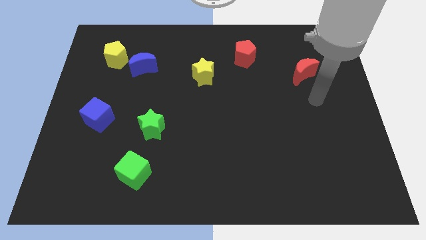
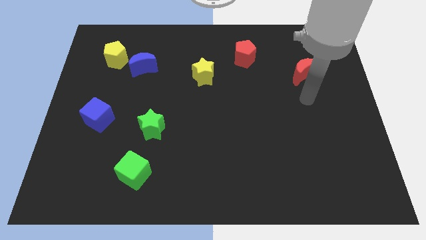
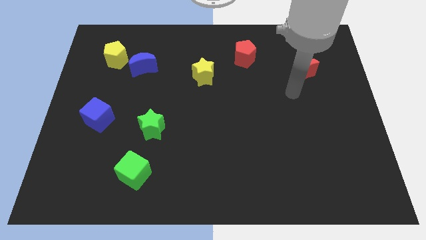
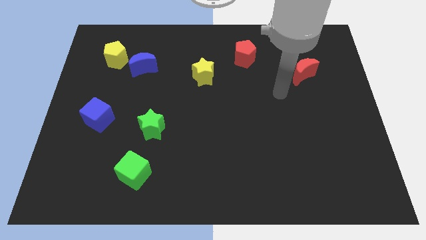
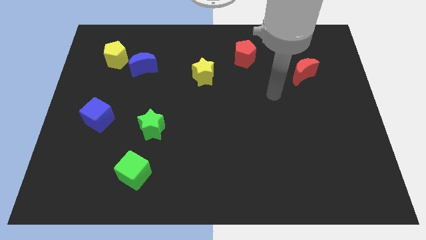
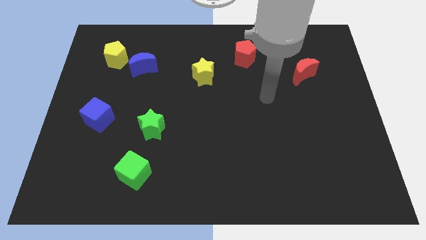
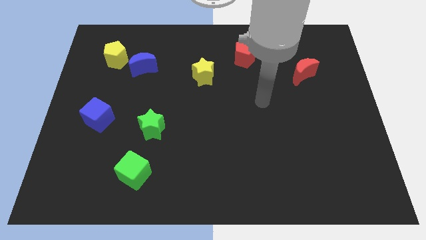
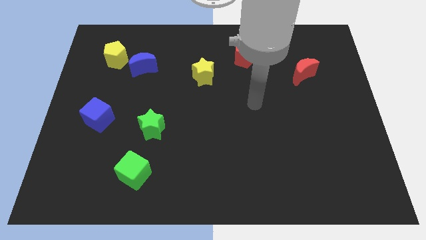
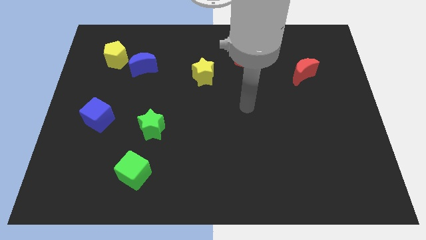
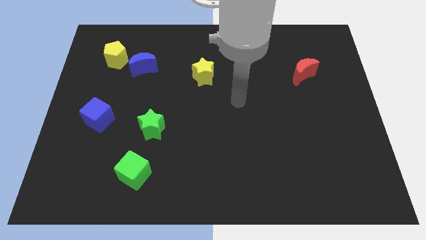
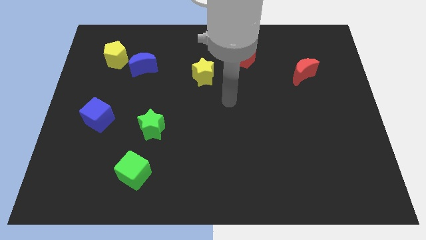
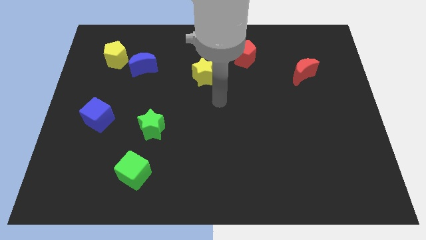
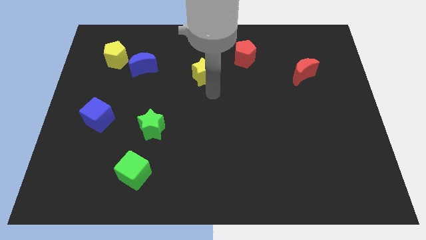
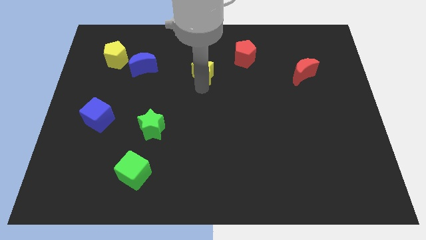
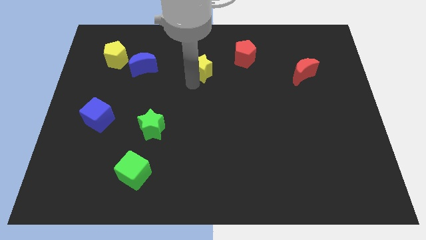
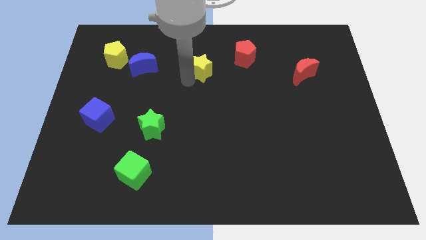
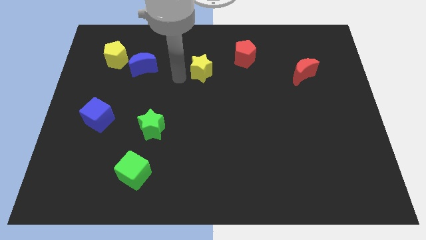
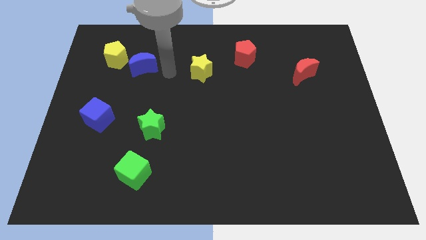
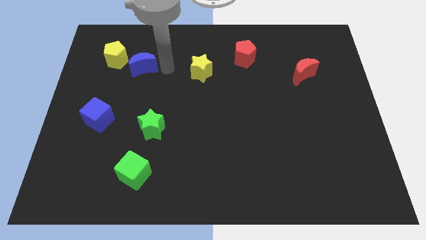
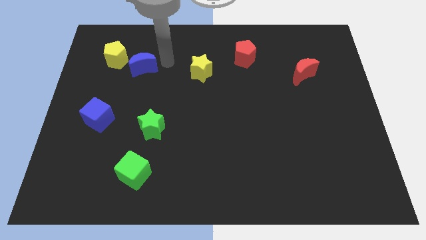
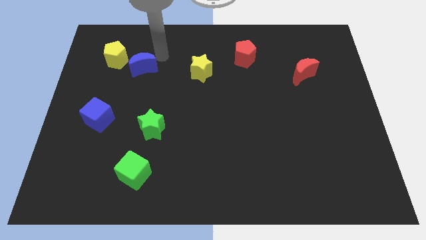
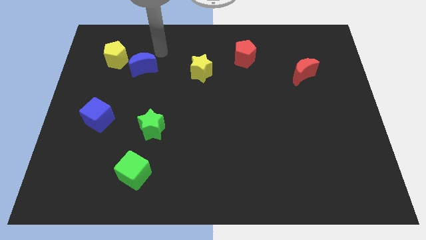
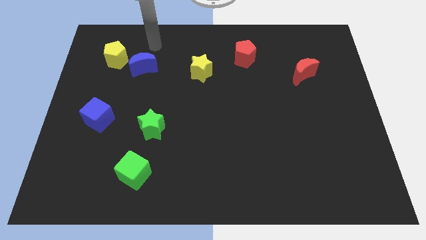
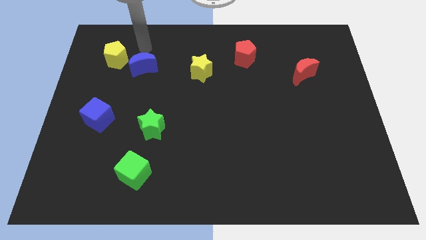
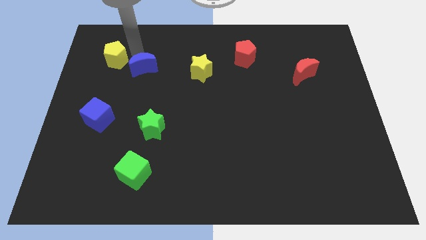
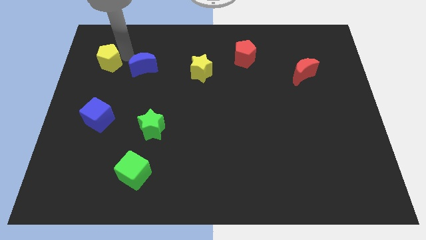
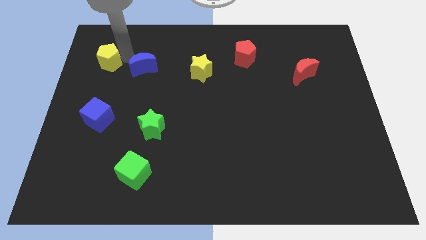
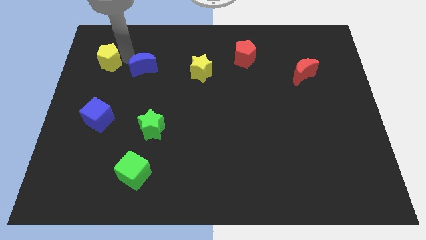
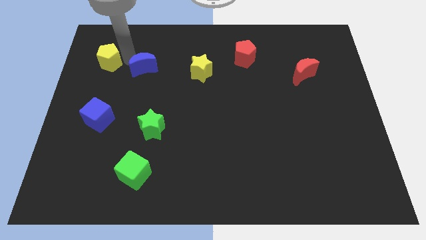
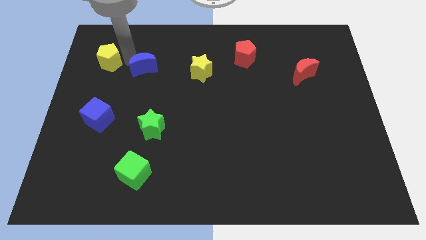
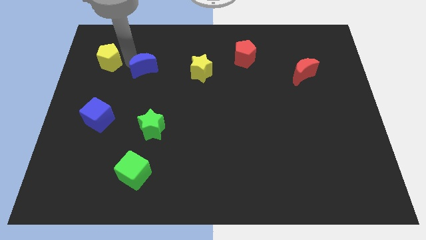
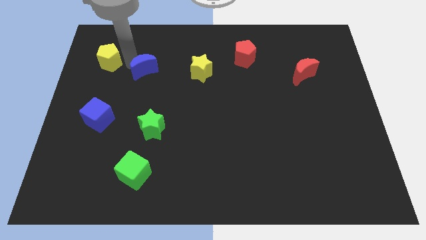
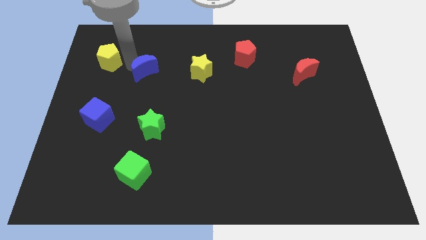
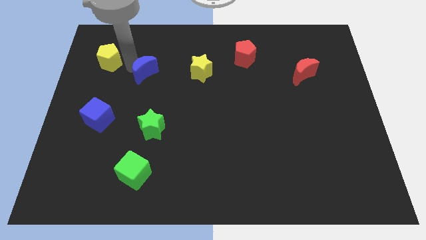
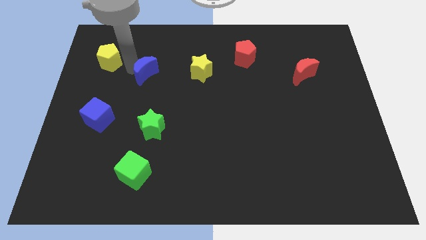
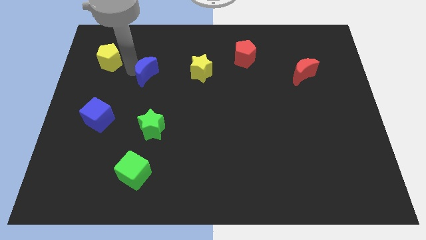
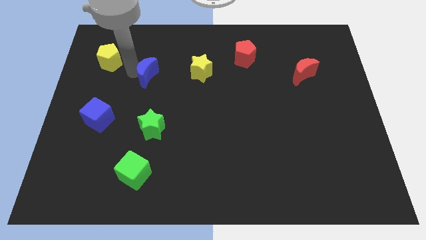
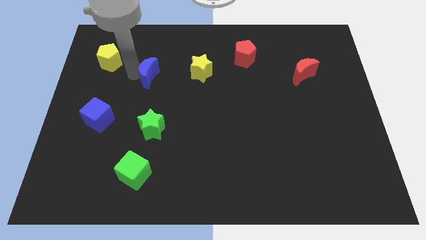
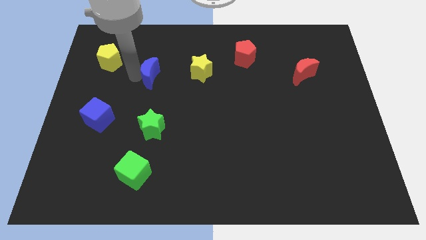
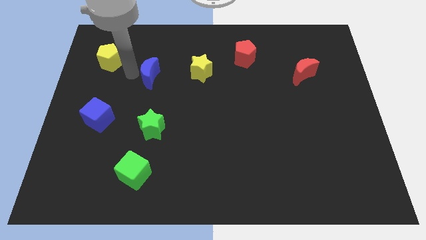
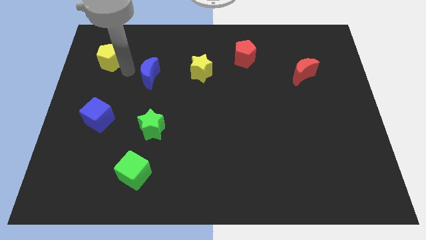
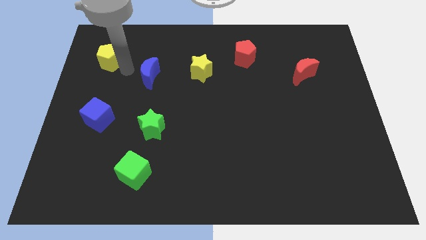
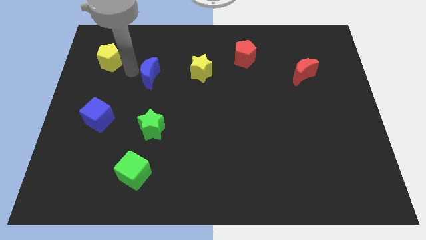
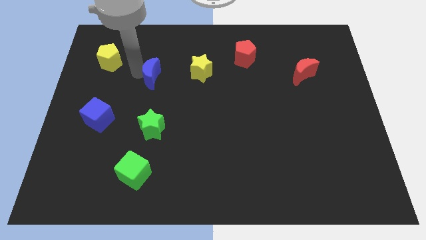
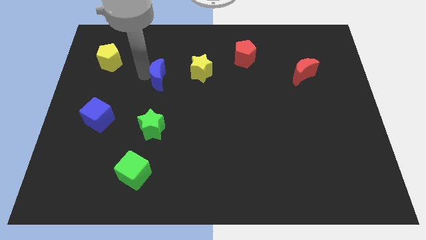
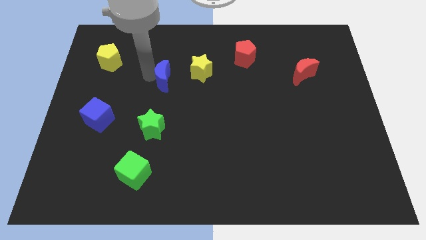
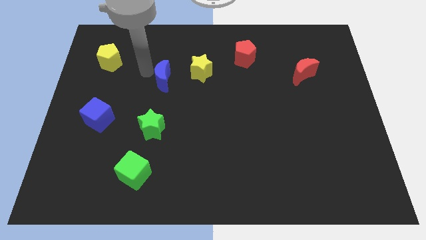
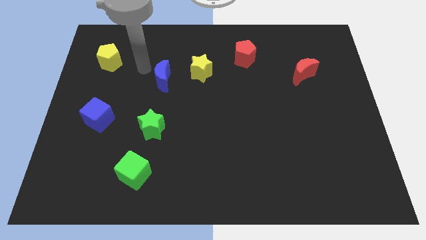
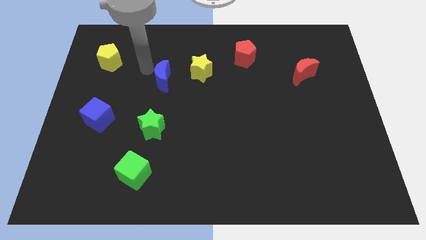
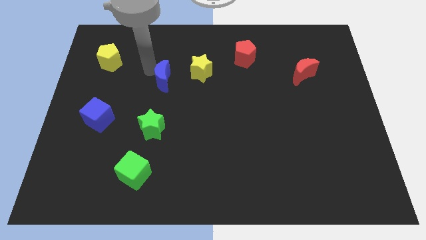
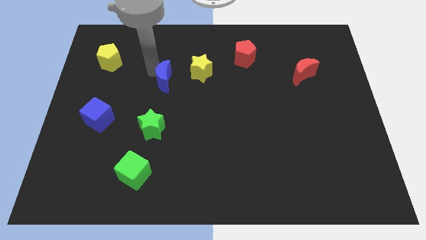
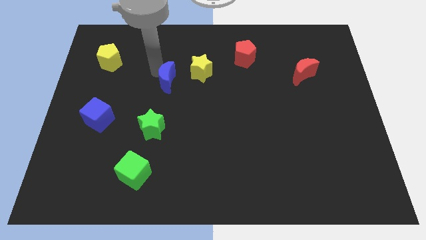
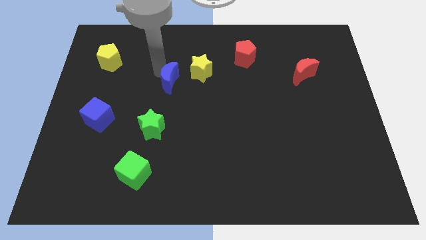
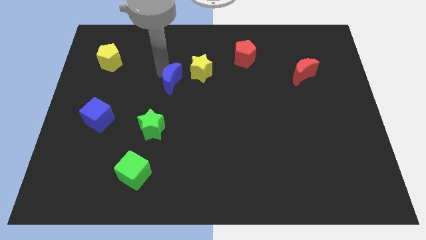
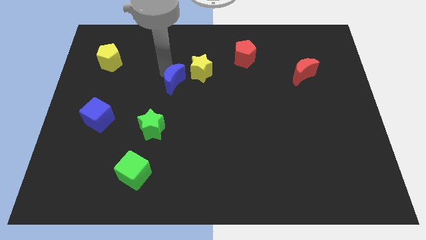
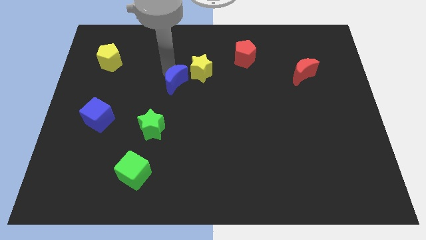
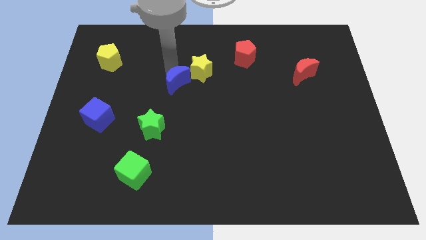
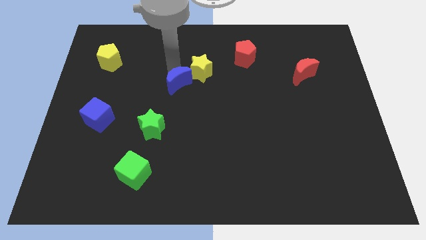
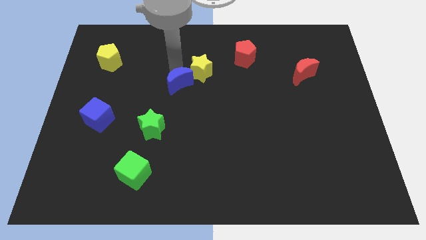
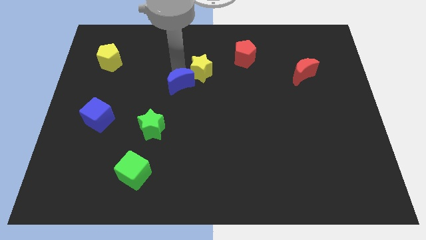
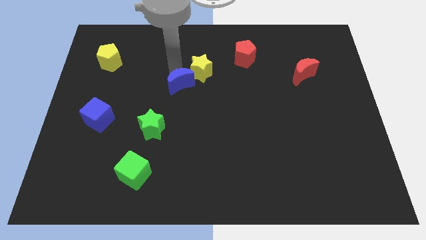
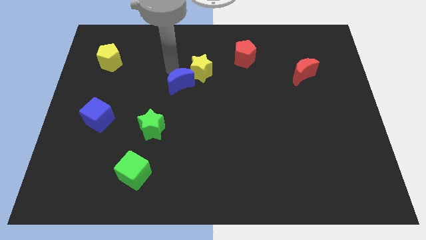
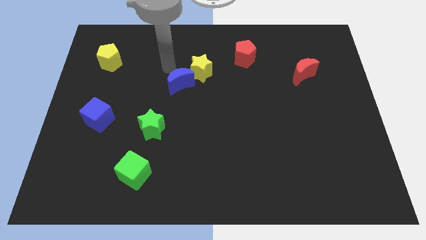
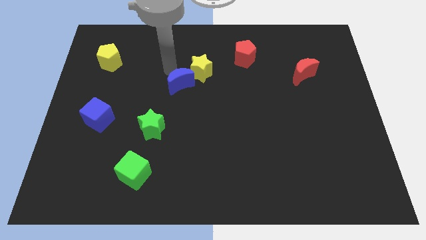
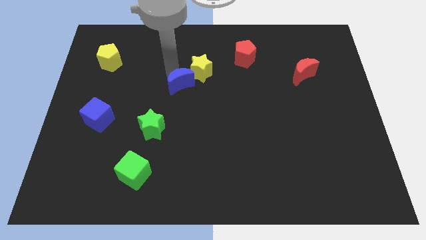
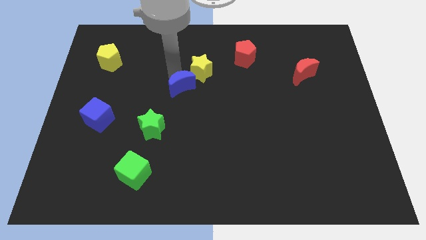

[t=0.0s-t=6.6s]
put the blue moon to the bottom of the yellow star
